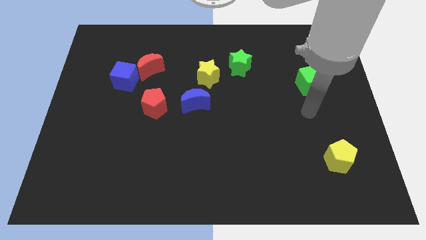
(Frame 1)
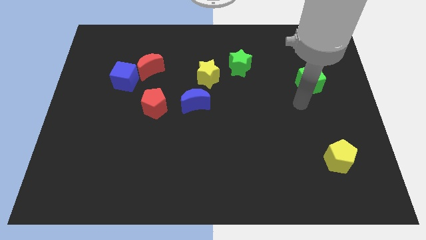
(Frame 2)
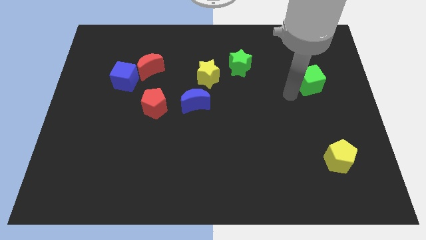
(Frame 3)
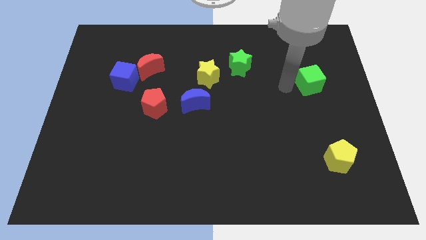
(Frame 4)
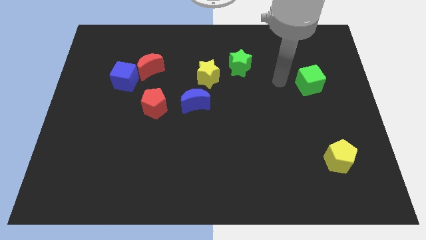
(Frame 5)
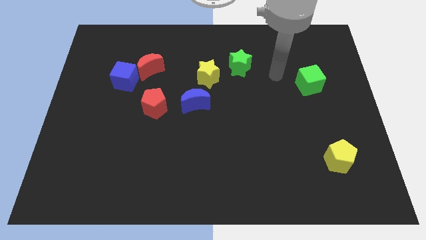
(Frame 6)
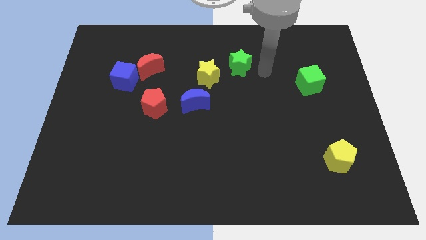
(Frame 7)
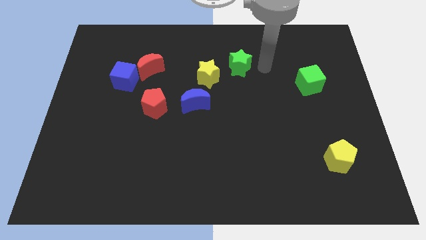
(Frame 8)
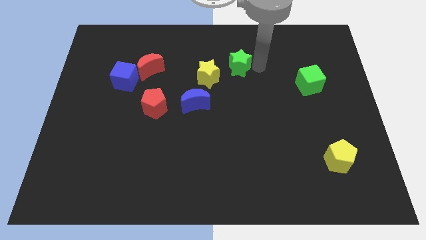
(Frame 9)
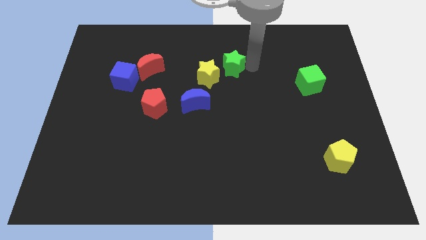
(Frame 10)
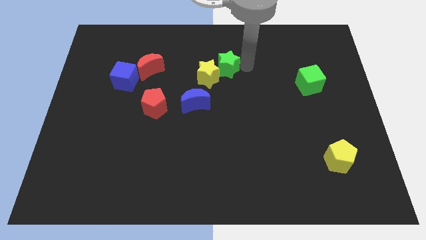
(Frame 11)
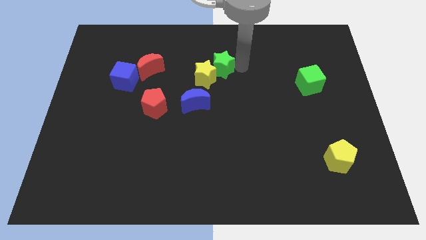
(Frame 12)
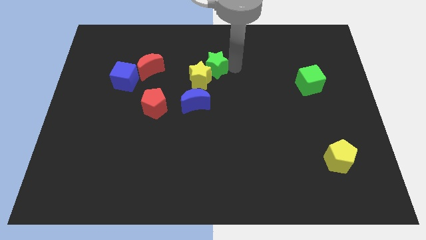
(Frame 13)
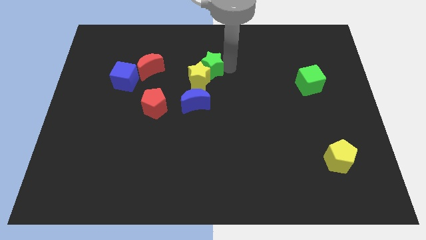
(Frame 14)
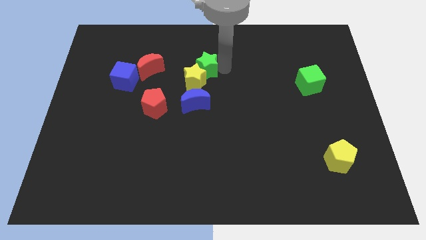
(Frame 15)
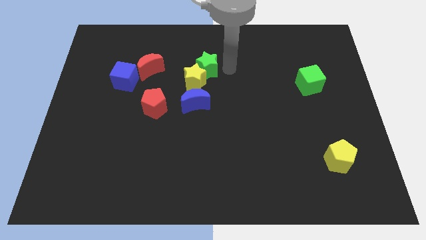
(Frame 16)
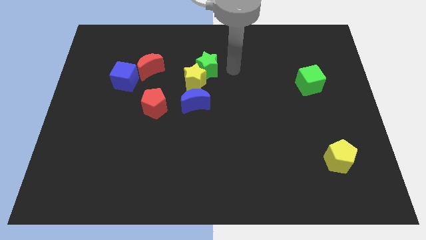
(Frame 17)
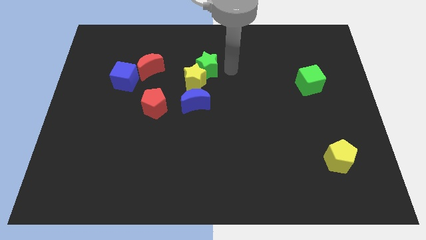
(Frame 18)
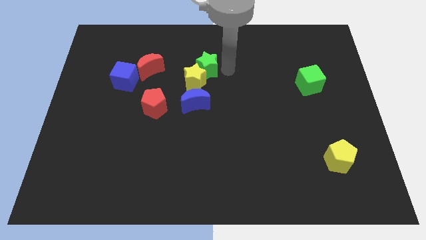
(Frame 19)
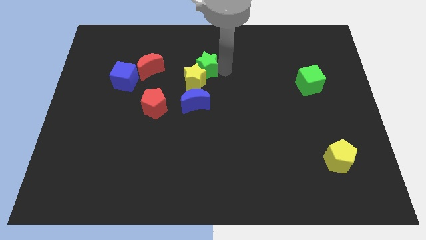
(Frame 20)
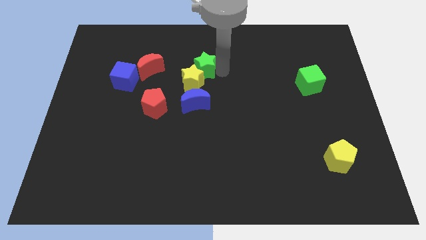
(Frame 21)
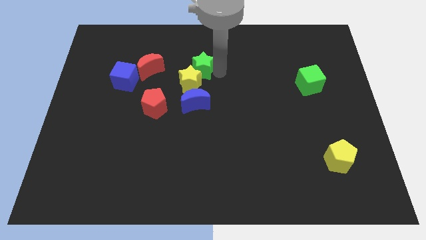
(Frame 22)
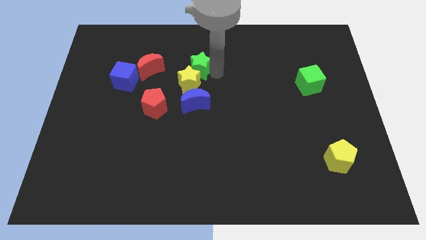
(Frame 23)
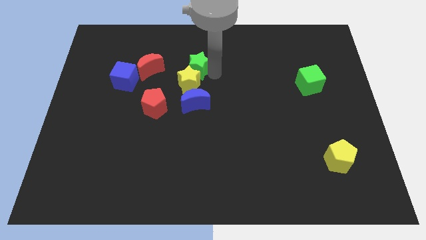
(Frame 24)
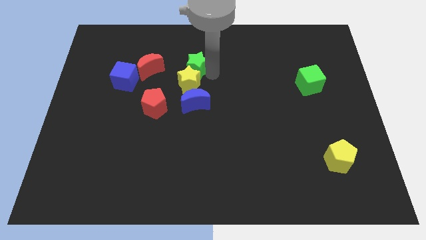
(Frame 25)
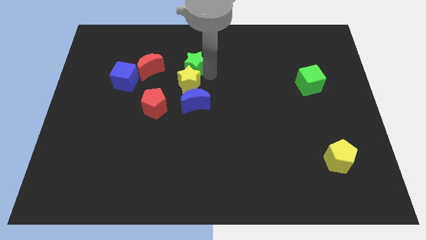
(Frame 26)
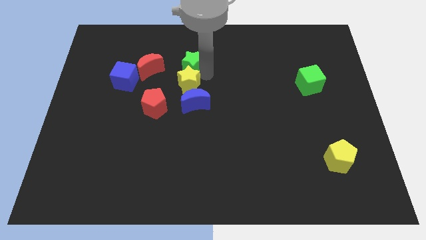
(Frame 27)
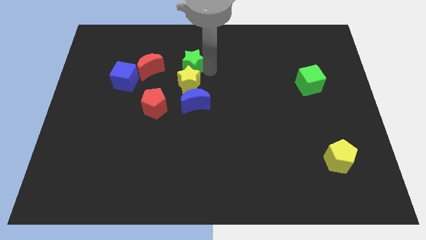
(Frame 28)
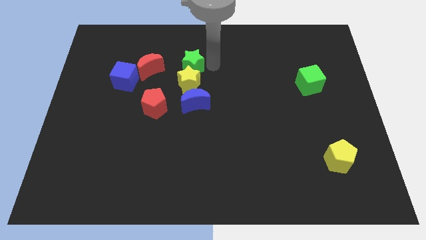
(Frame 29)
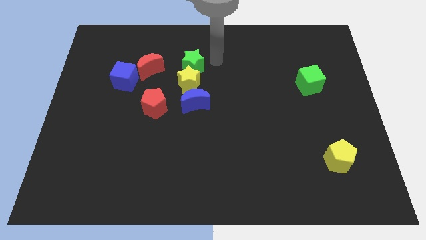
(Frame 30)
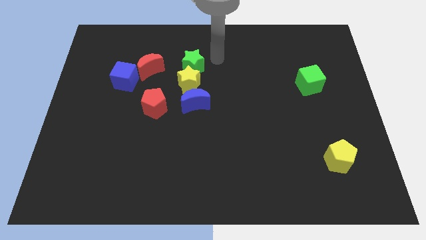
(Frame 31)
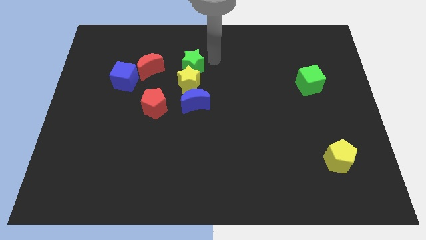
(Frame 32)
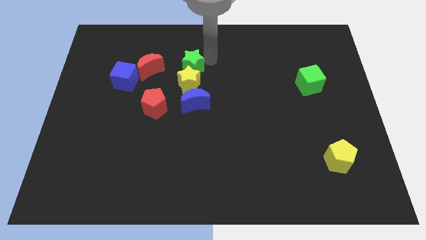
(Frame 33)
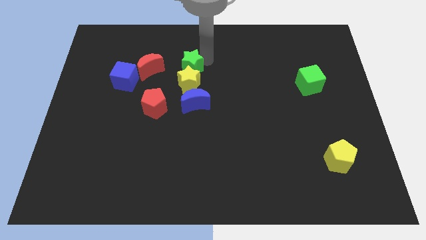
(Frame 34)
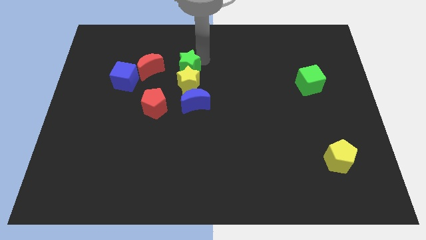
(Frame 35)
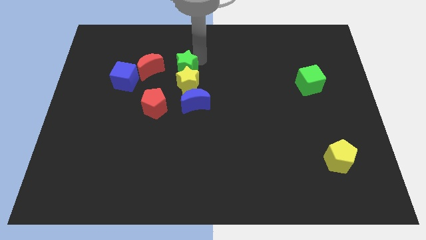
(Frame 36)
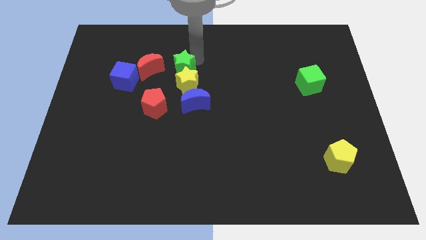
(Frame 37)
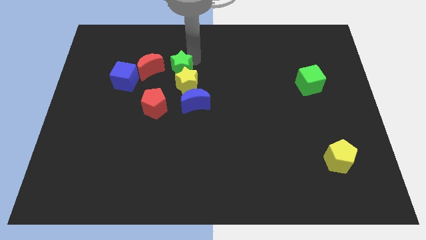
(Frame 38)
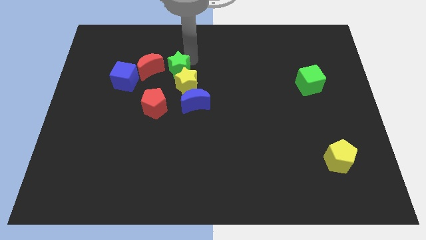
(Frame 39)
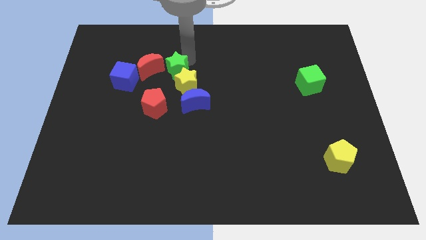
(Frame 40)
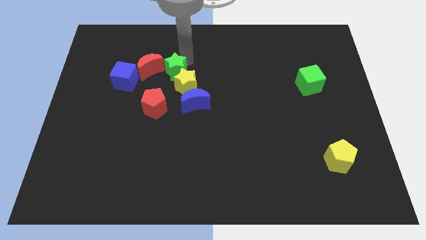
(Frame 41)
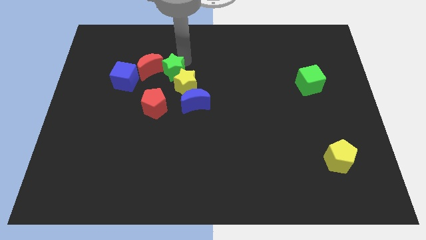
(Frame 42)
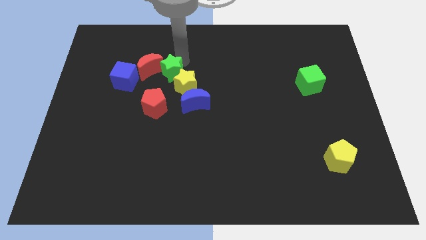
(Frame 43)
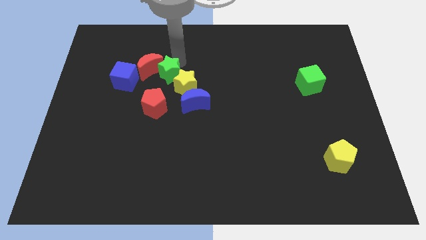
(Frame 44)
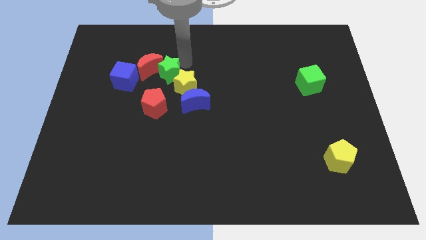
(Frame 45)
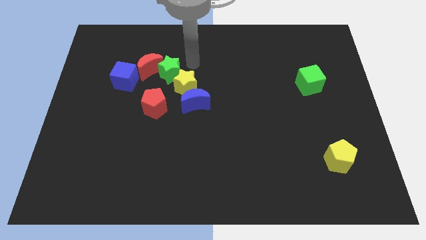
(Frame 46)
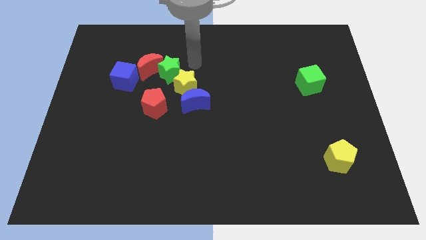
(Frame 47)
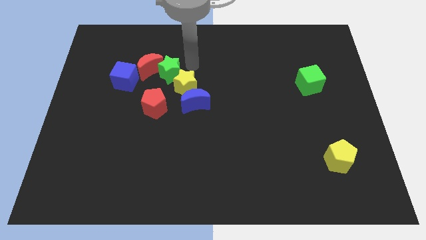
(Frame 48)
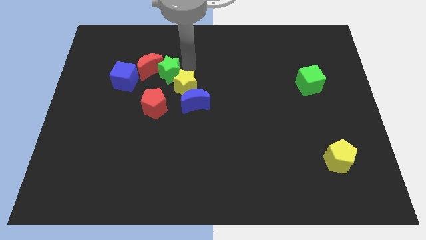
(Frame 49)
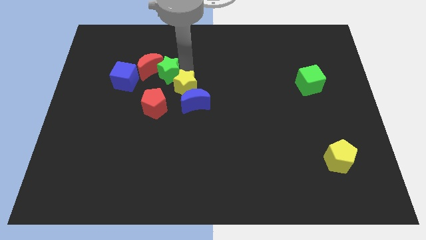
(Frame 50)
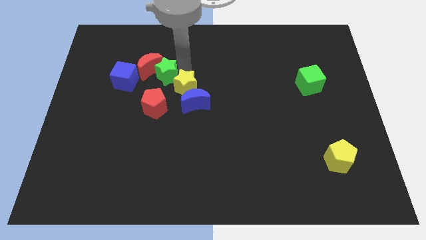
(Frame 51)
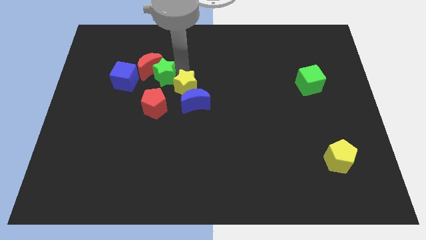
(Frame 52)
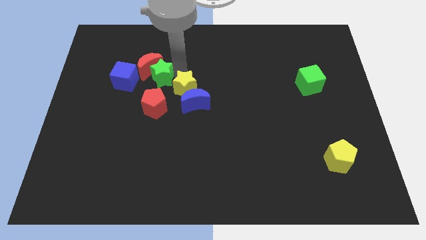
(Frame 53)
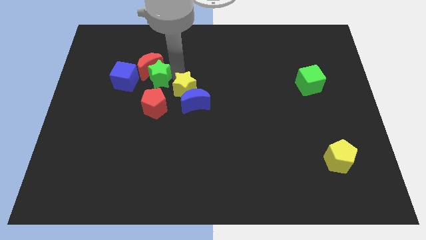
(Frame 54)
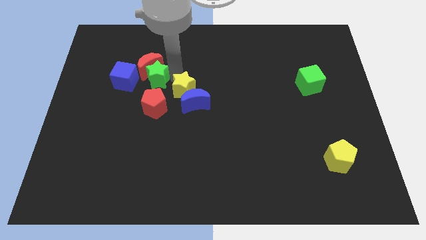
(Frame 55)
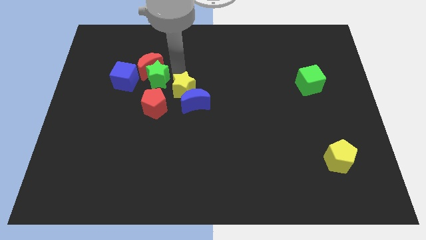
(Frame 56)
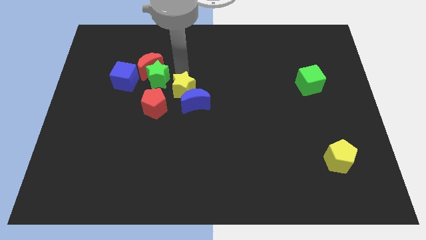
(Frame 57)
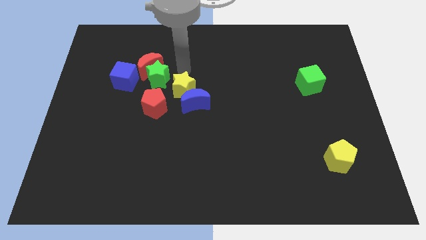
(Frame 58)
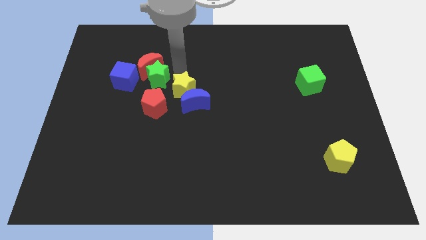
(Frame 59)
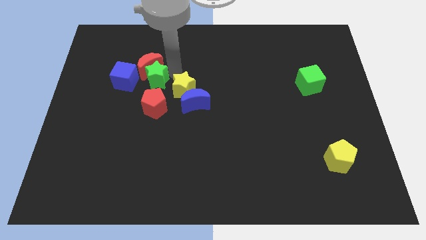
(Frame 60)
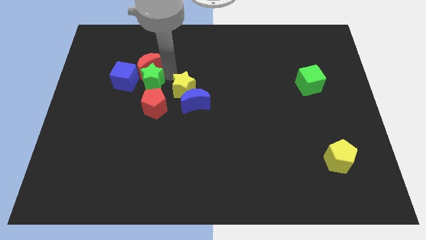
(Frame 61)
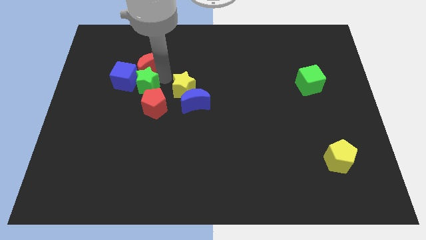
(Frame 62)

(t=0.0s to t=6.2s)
slide the green star to the blue cube

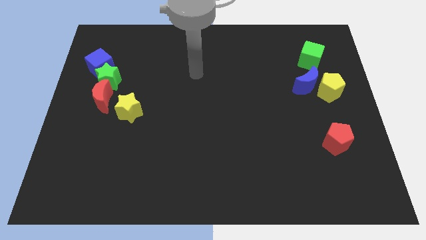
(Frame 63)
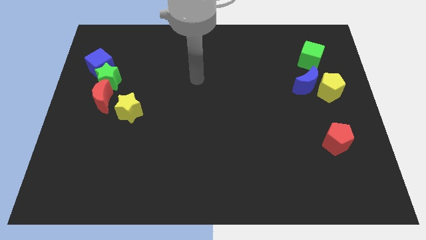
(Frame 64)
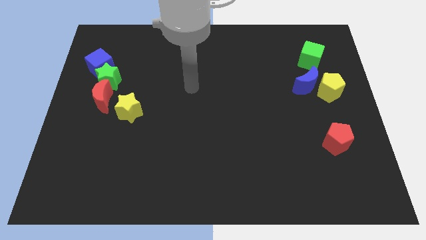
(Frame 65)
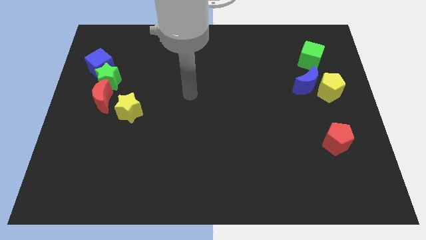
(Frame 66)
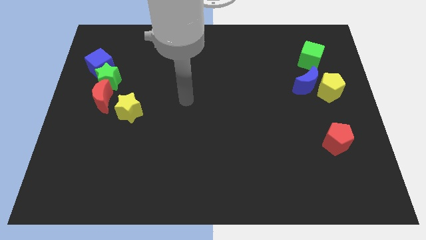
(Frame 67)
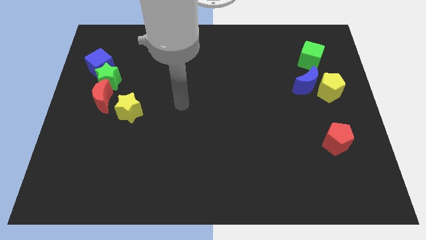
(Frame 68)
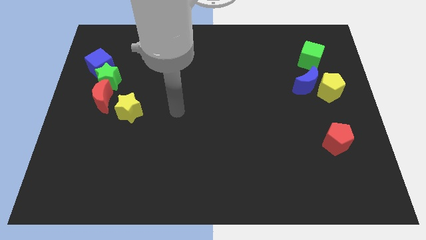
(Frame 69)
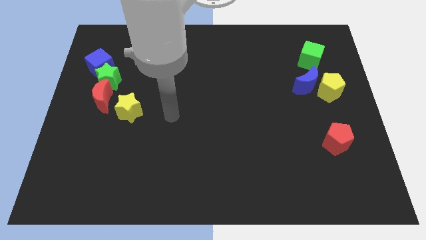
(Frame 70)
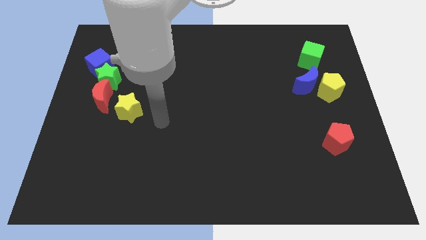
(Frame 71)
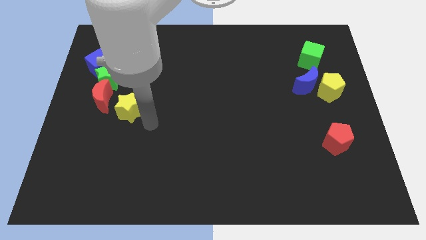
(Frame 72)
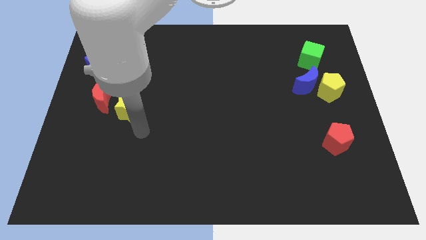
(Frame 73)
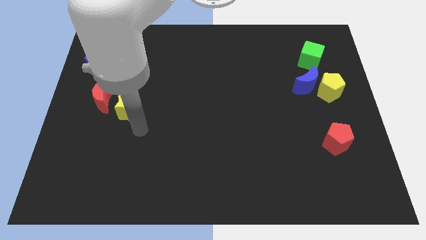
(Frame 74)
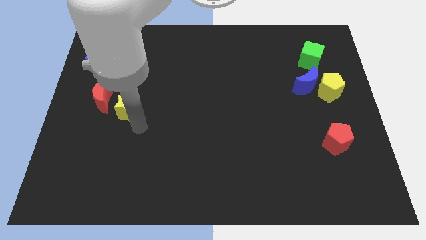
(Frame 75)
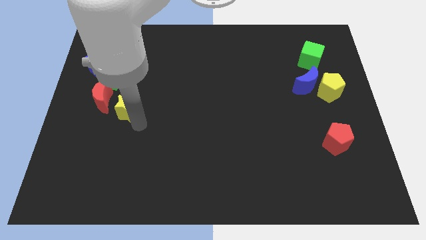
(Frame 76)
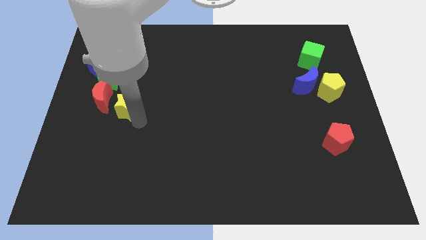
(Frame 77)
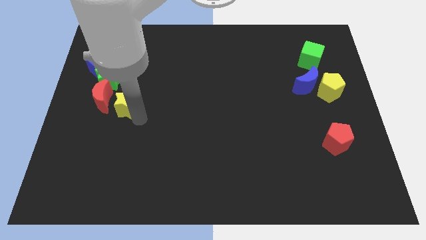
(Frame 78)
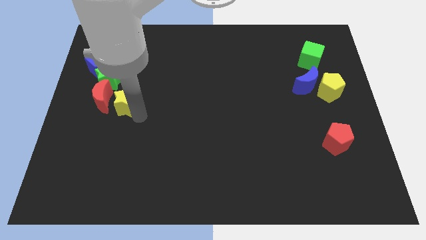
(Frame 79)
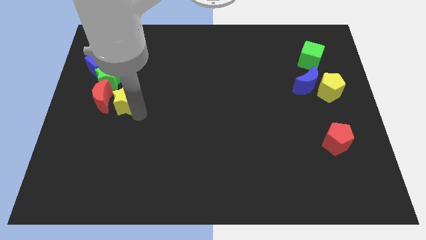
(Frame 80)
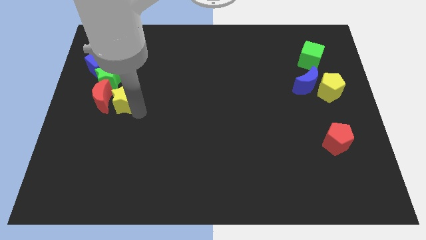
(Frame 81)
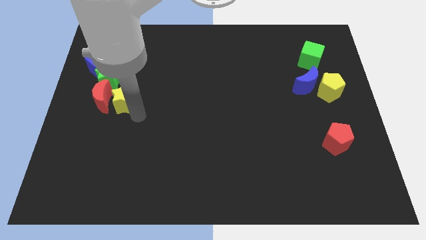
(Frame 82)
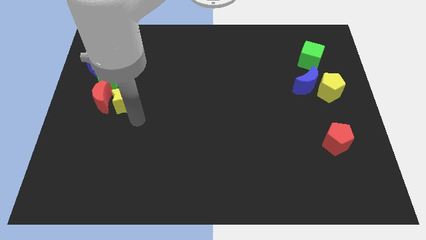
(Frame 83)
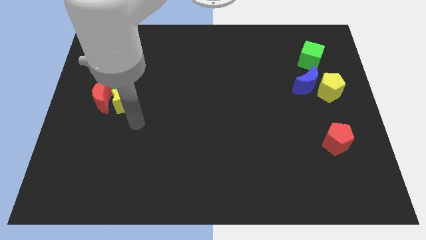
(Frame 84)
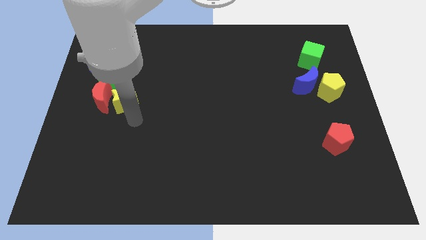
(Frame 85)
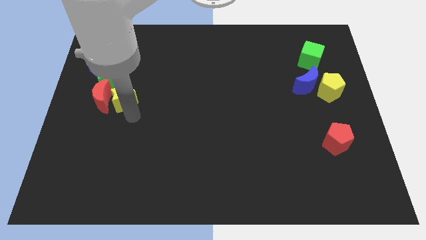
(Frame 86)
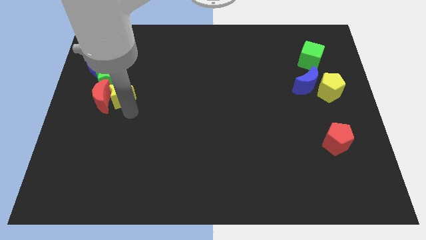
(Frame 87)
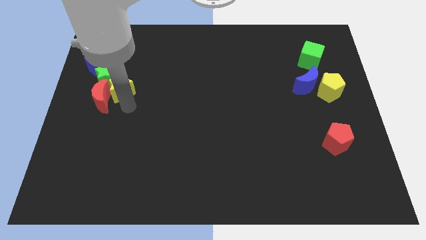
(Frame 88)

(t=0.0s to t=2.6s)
put the yellow star to the green star
